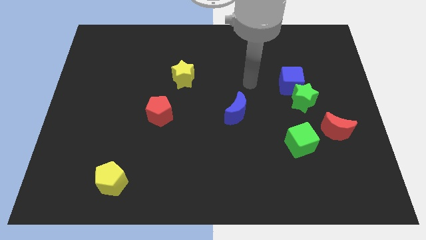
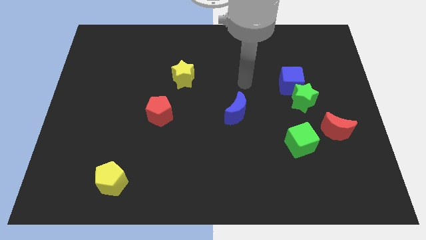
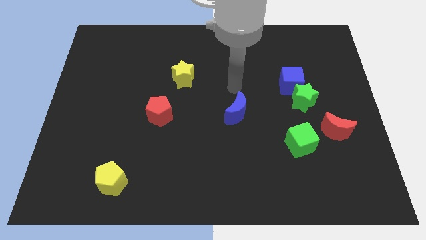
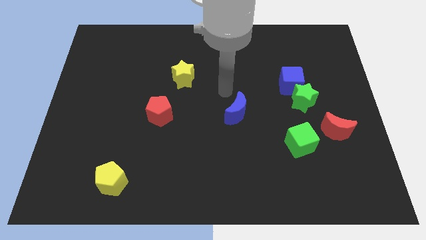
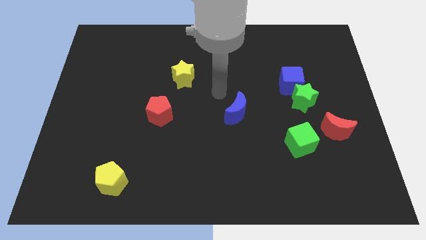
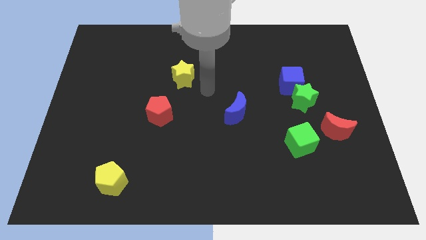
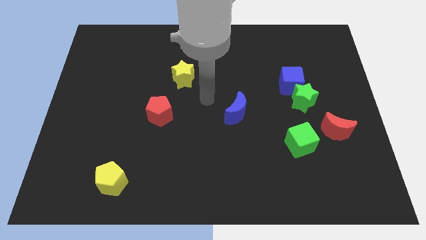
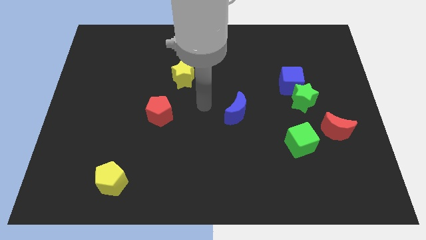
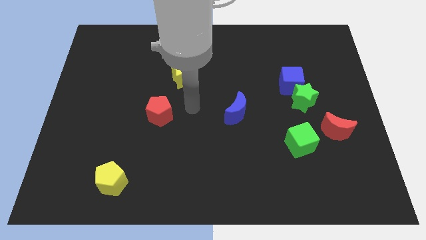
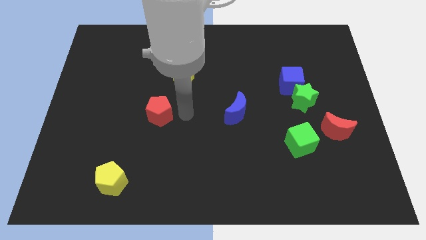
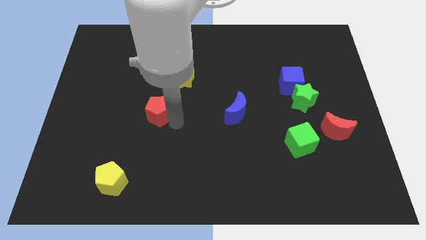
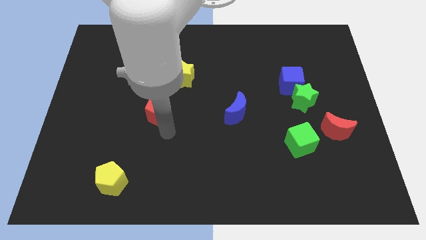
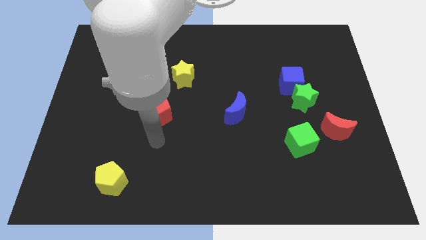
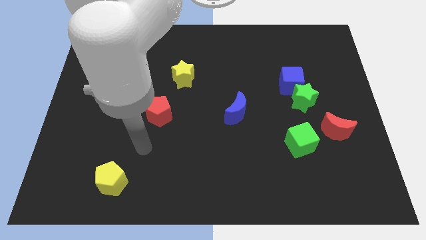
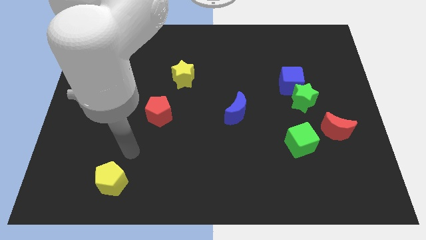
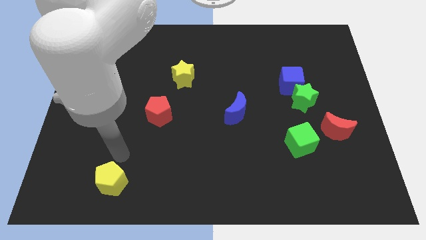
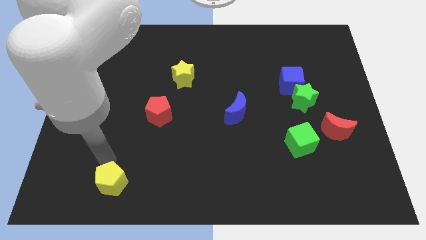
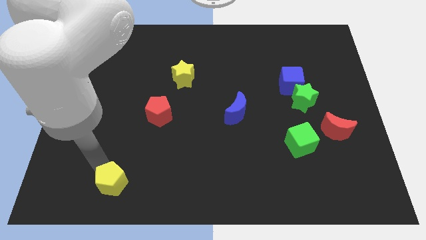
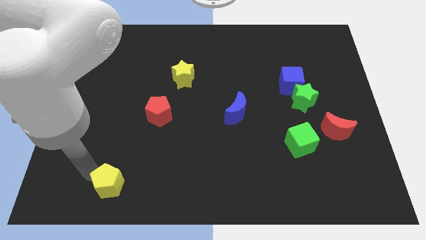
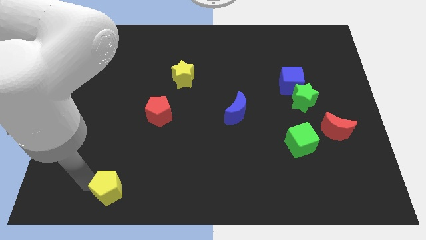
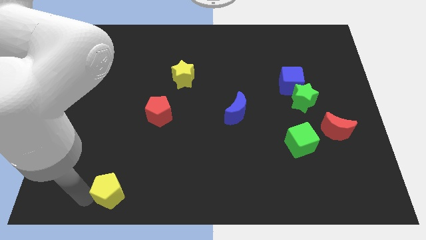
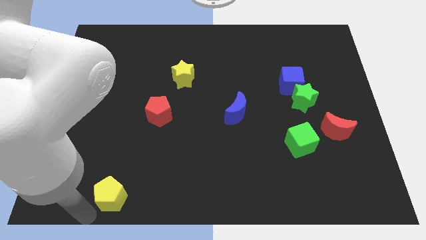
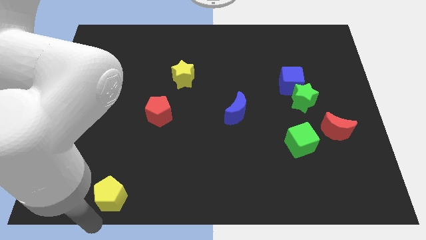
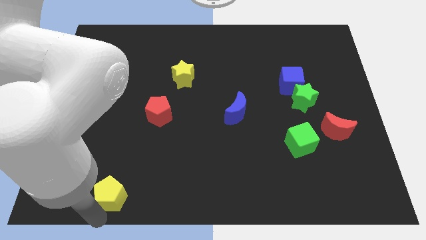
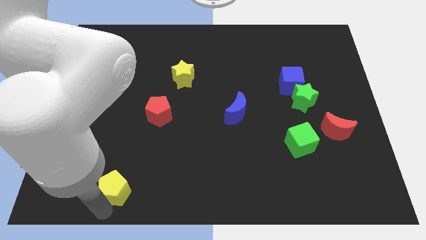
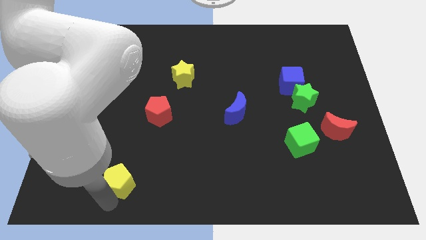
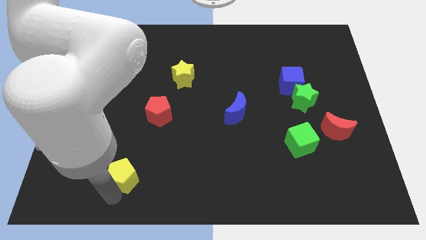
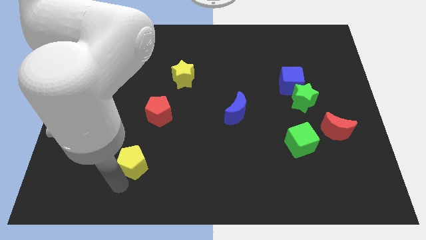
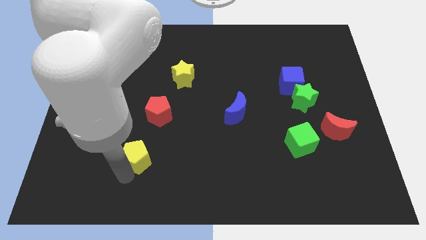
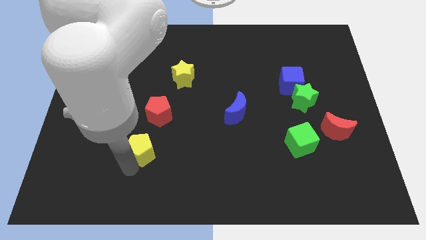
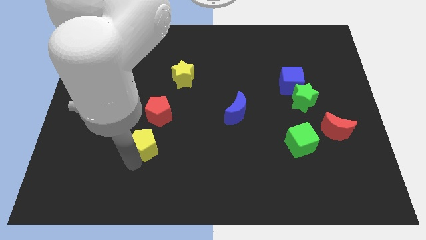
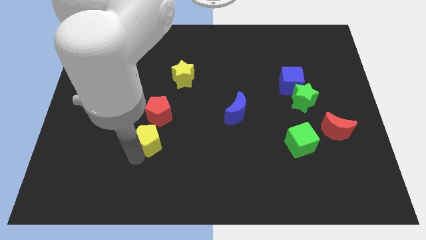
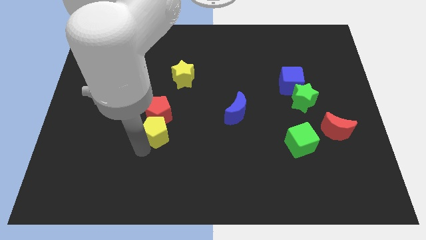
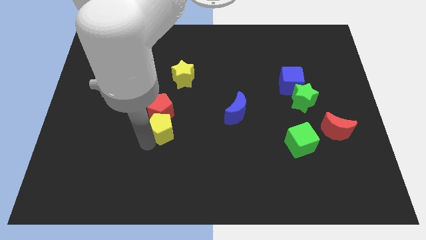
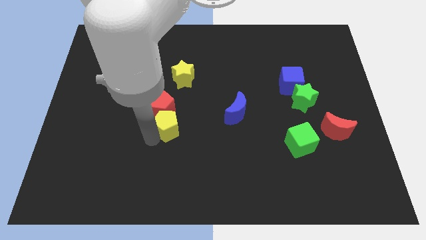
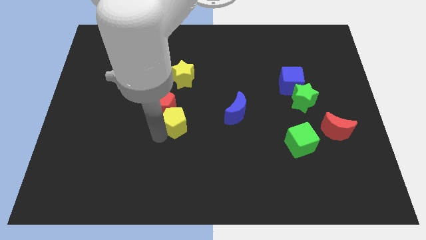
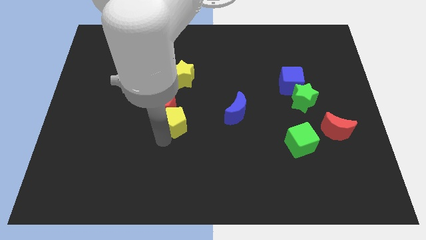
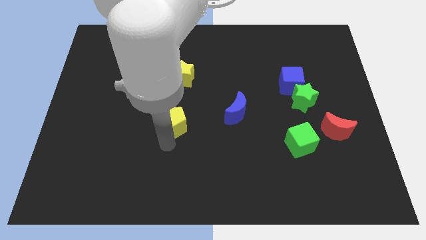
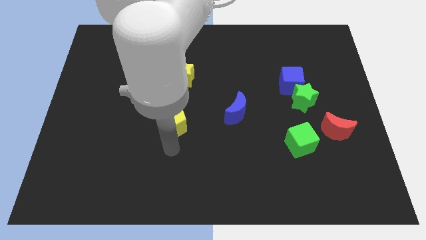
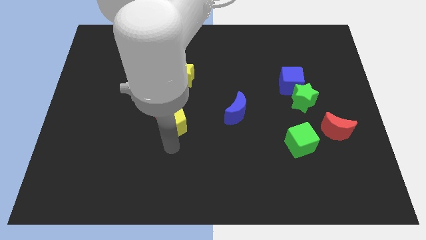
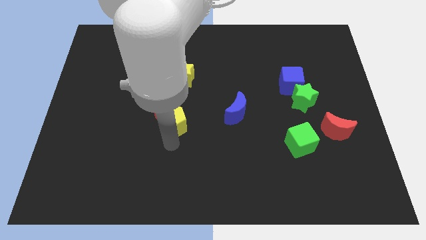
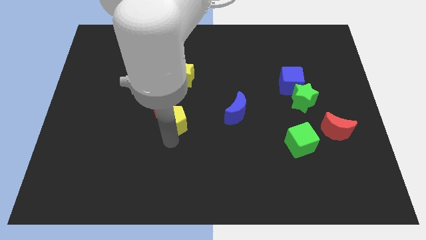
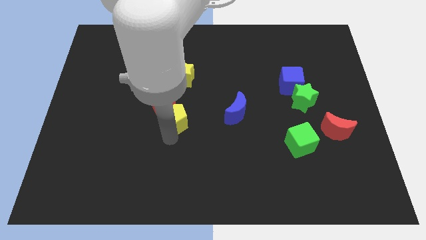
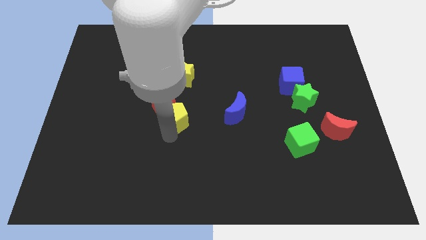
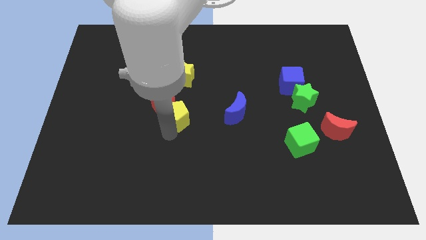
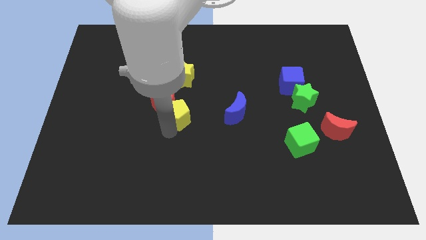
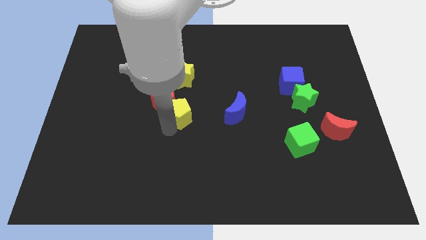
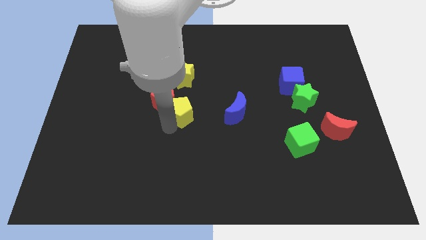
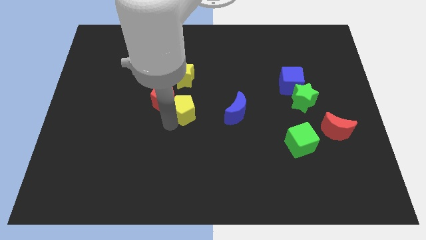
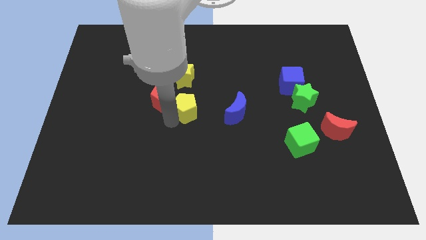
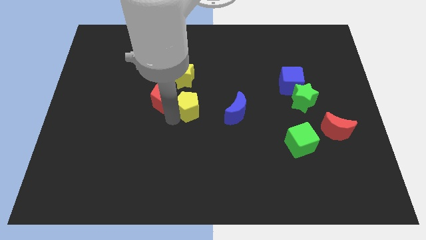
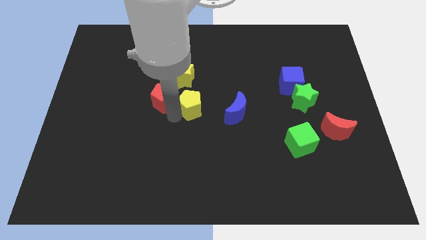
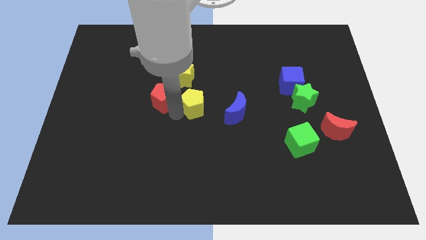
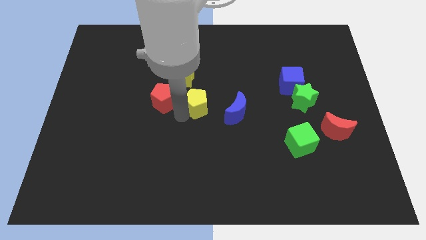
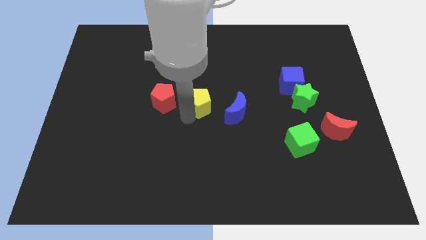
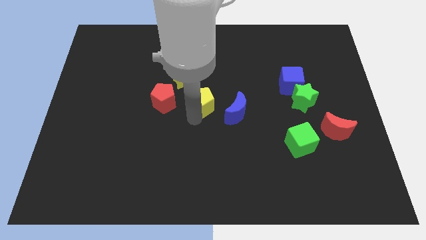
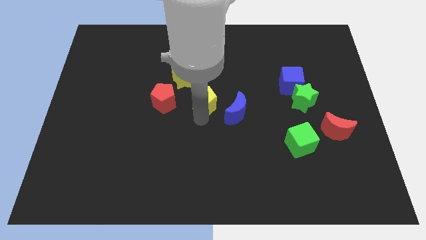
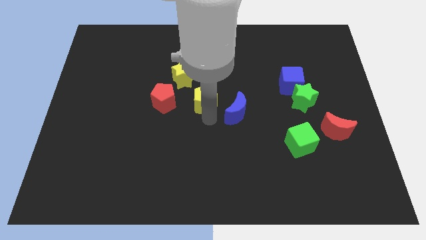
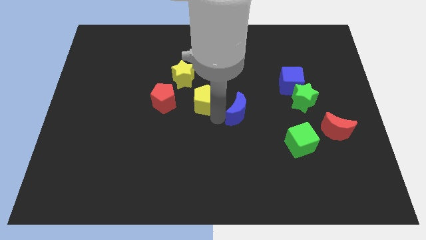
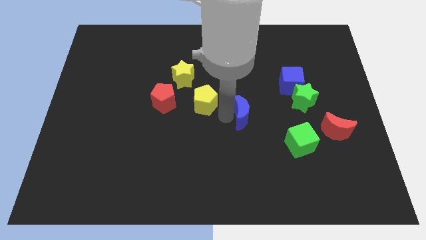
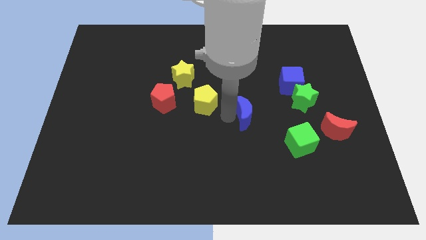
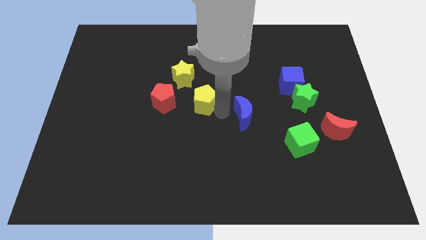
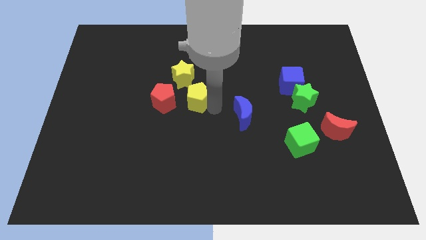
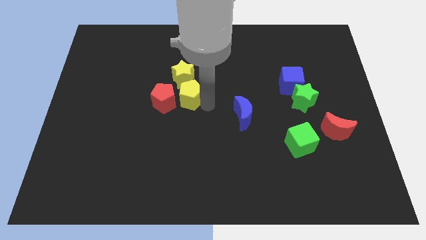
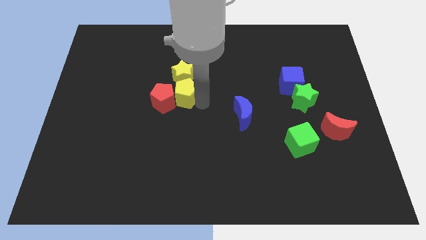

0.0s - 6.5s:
push the yellow pentagon towards the yellow star
